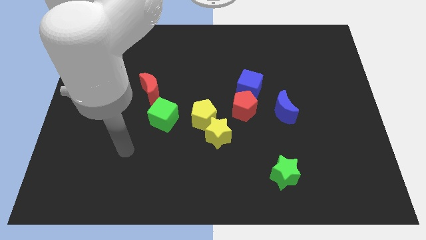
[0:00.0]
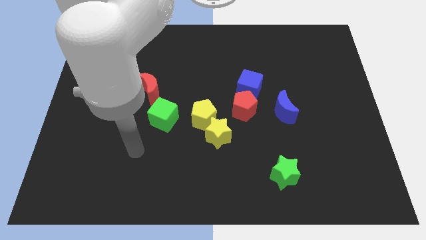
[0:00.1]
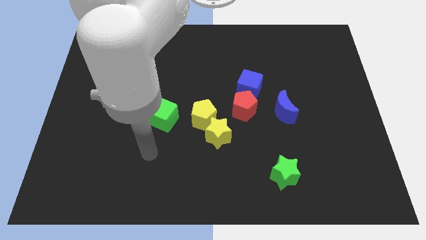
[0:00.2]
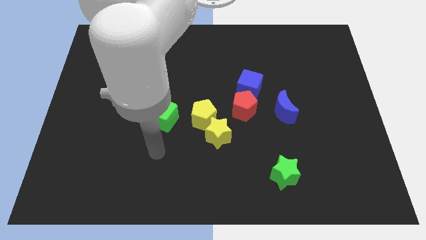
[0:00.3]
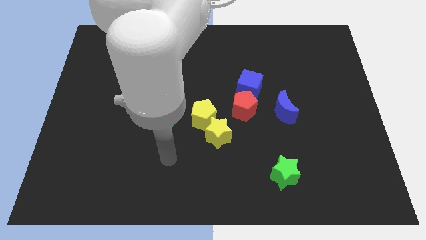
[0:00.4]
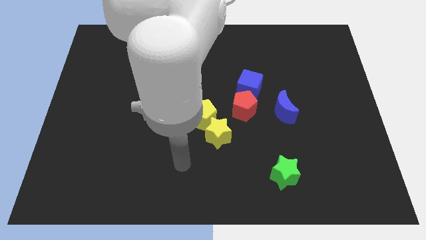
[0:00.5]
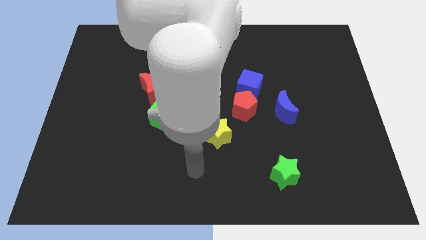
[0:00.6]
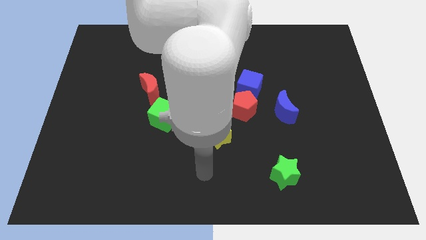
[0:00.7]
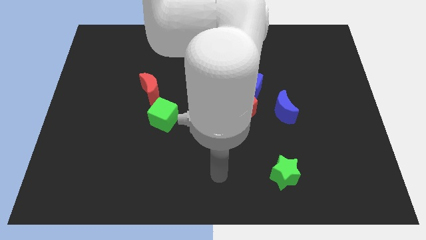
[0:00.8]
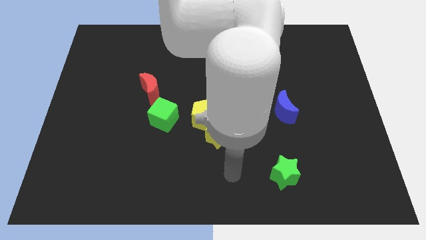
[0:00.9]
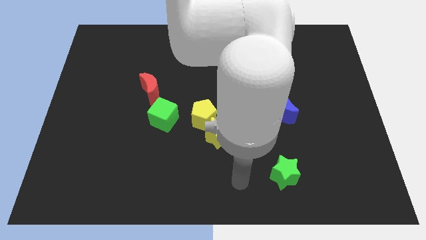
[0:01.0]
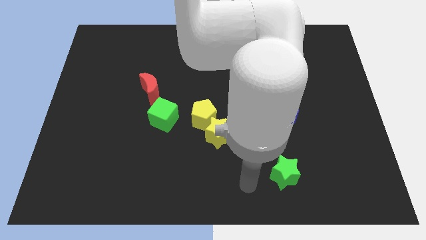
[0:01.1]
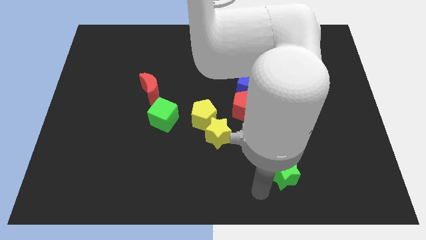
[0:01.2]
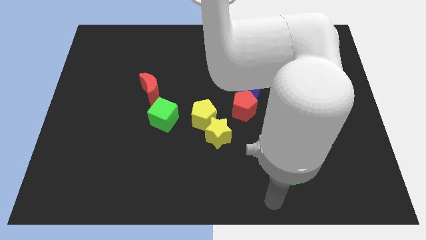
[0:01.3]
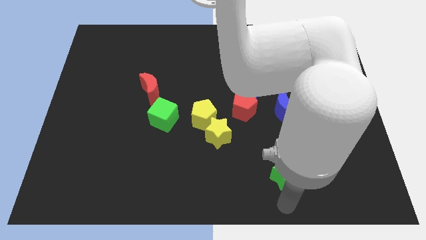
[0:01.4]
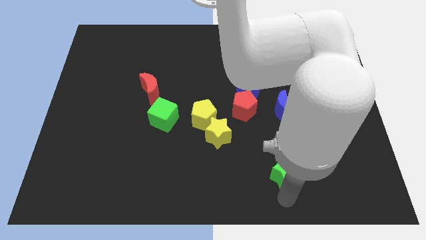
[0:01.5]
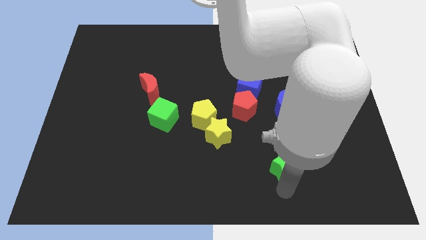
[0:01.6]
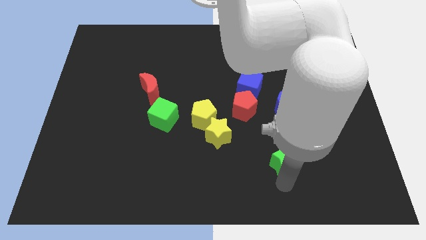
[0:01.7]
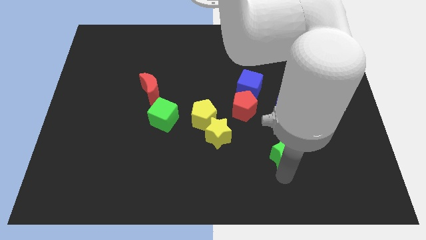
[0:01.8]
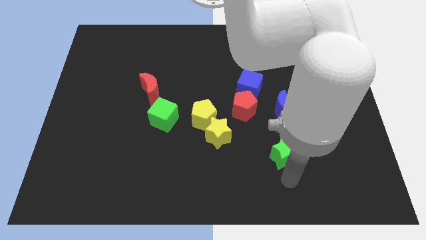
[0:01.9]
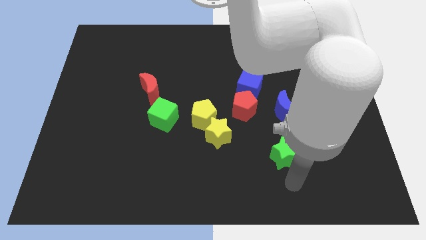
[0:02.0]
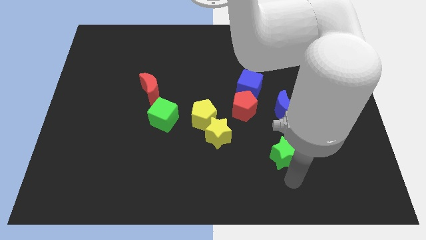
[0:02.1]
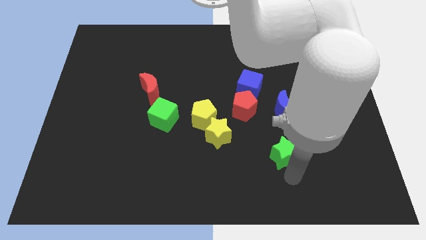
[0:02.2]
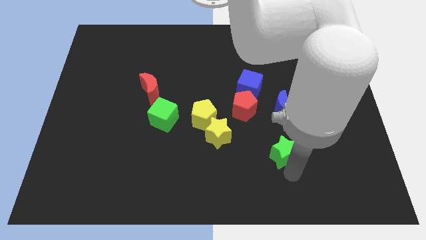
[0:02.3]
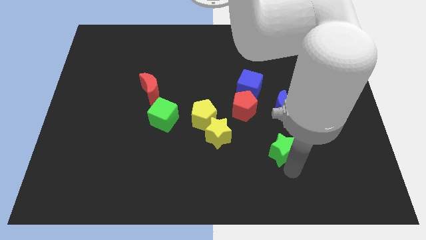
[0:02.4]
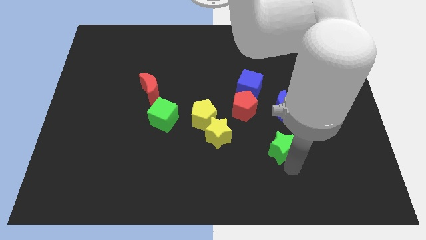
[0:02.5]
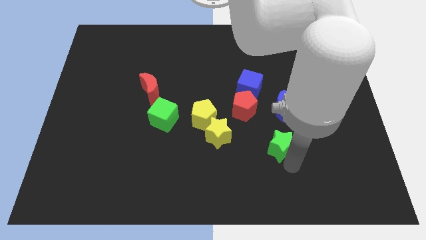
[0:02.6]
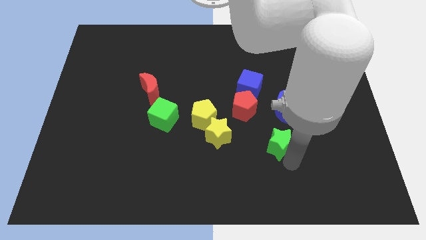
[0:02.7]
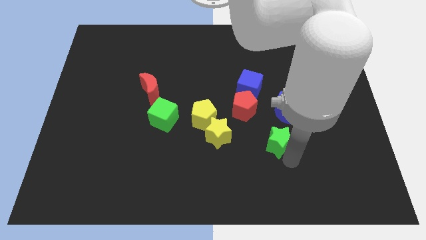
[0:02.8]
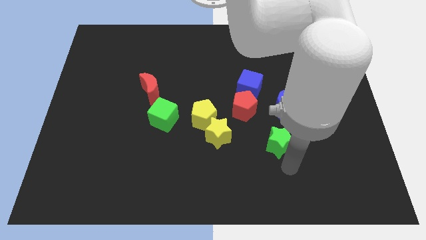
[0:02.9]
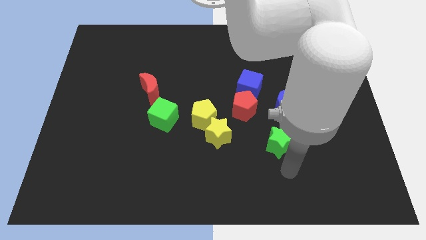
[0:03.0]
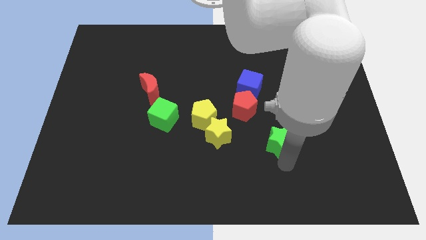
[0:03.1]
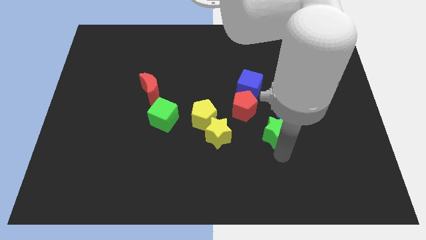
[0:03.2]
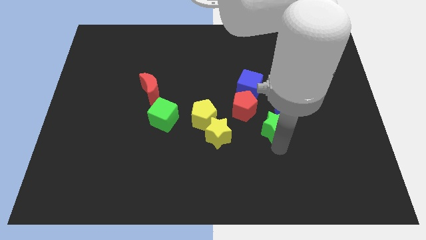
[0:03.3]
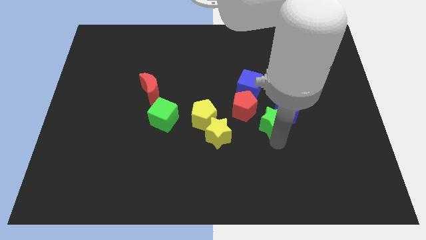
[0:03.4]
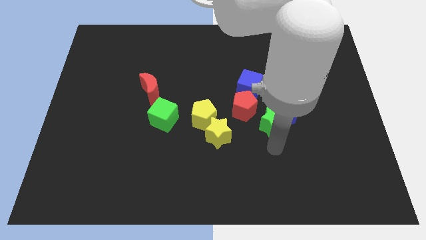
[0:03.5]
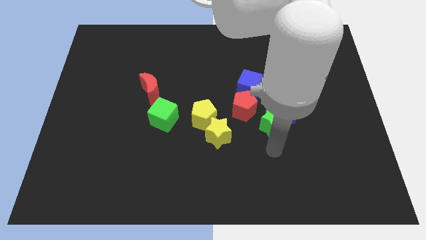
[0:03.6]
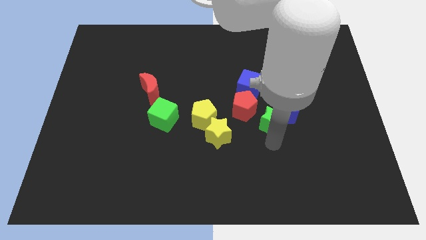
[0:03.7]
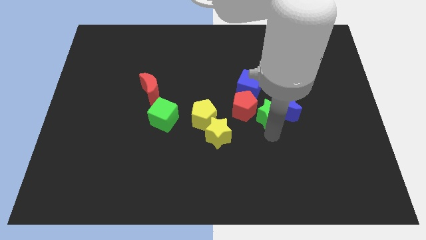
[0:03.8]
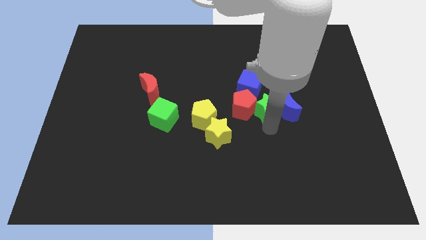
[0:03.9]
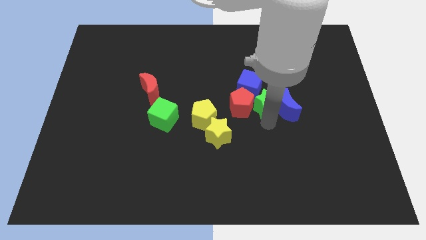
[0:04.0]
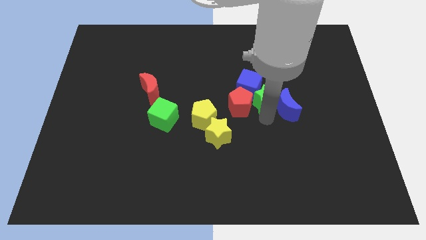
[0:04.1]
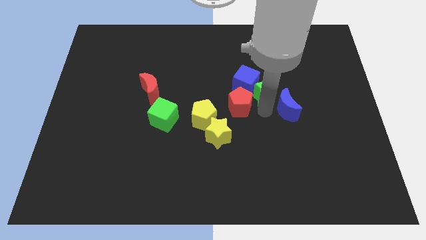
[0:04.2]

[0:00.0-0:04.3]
move the green star up

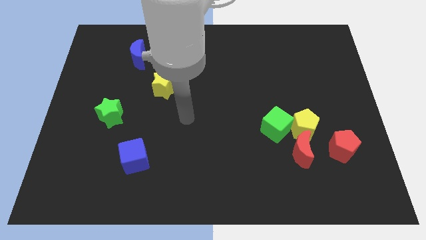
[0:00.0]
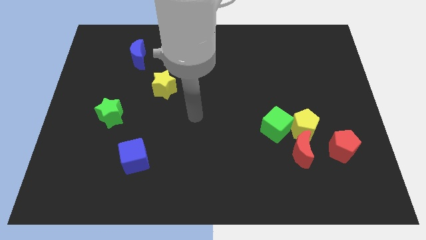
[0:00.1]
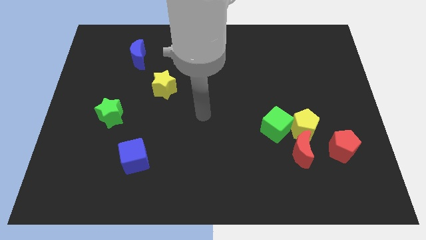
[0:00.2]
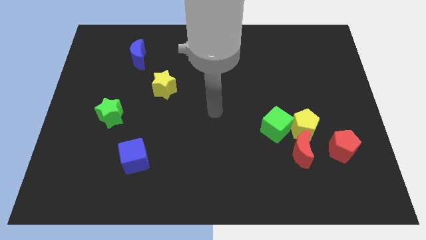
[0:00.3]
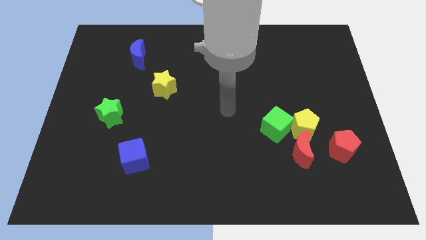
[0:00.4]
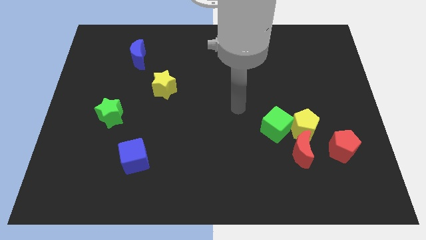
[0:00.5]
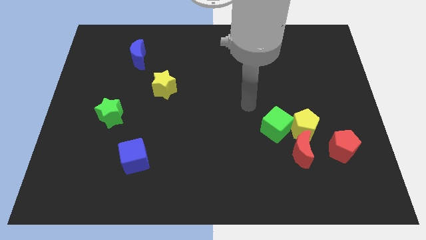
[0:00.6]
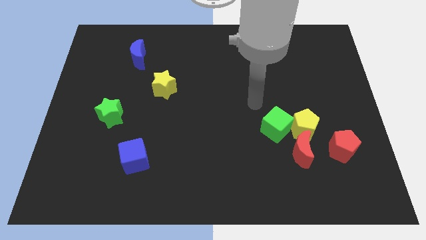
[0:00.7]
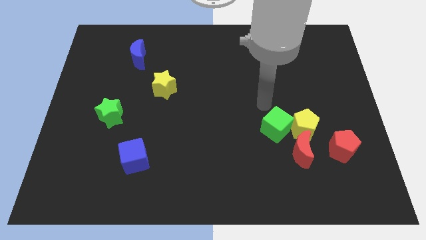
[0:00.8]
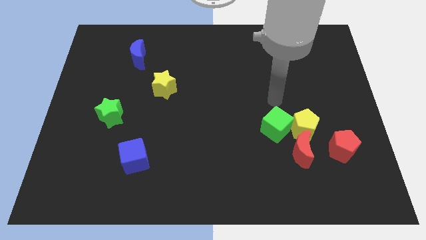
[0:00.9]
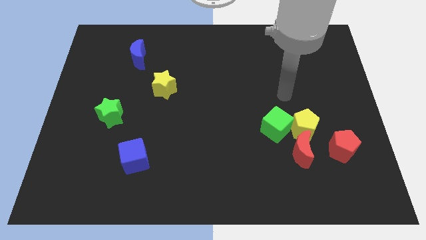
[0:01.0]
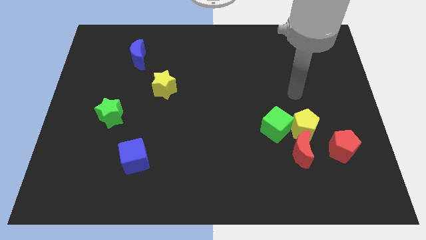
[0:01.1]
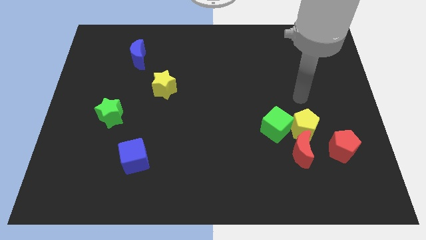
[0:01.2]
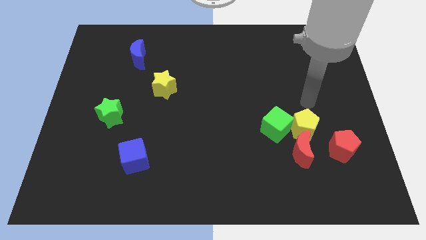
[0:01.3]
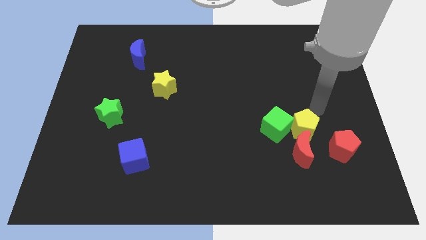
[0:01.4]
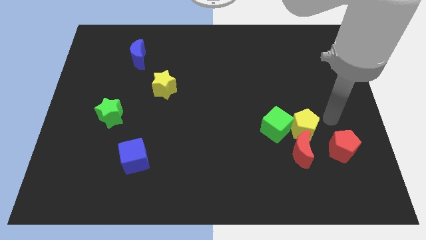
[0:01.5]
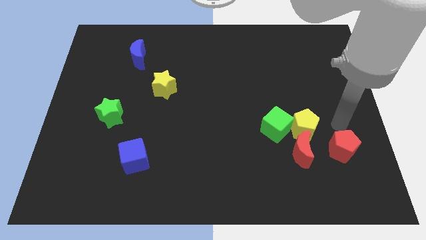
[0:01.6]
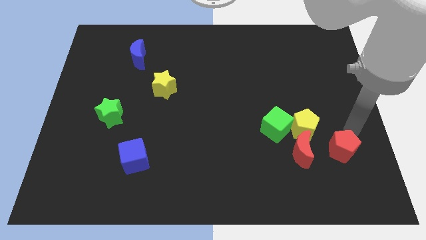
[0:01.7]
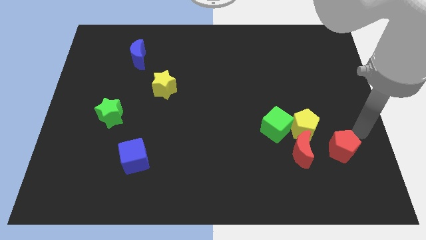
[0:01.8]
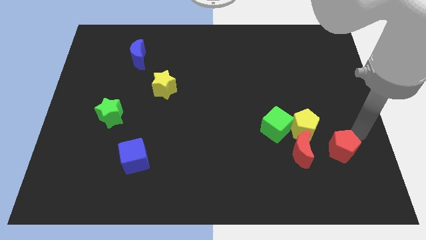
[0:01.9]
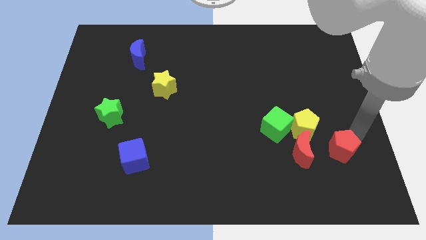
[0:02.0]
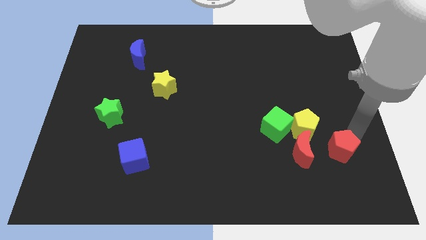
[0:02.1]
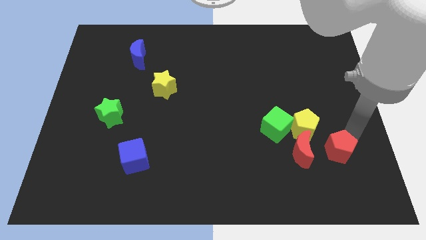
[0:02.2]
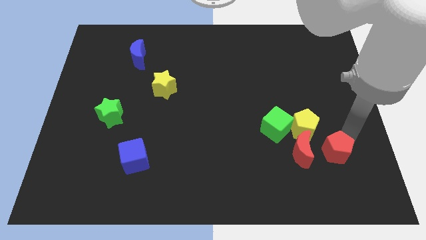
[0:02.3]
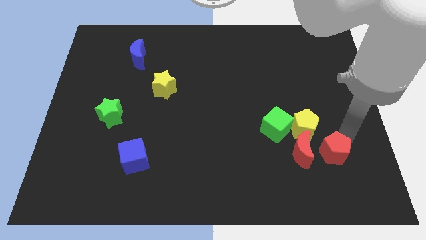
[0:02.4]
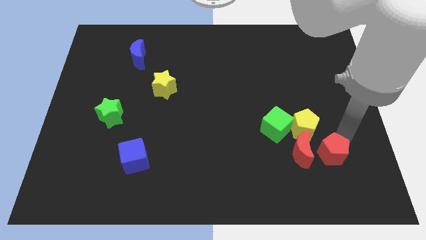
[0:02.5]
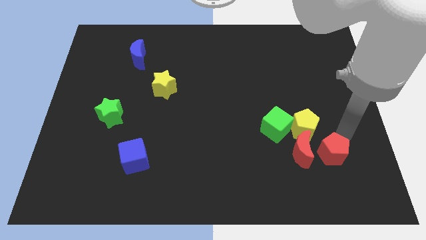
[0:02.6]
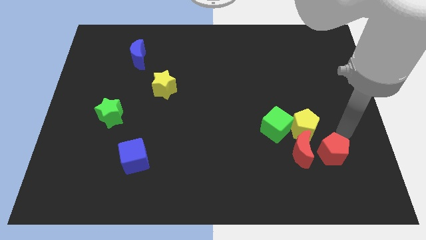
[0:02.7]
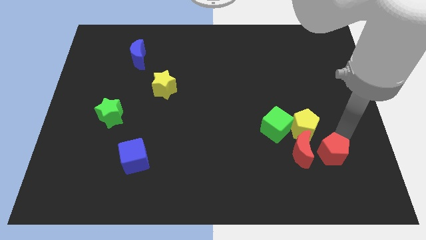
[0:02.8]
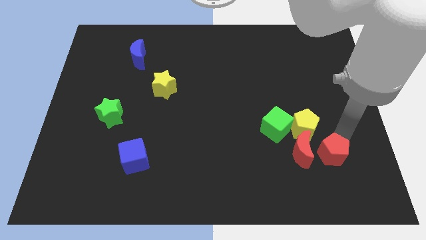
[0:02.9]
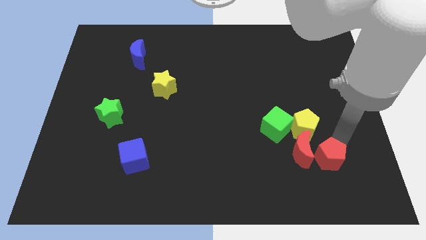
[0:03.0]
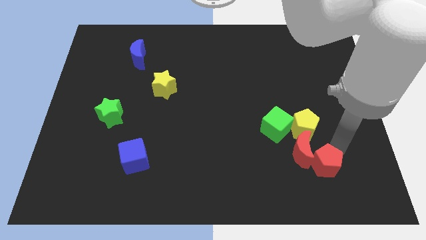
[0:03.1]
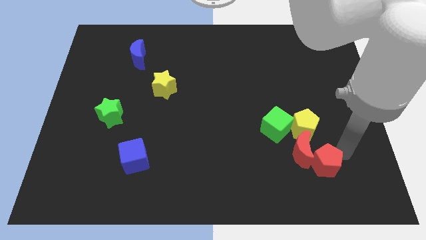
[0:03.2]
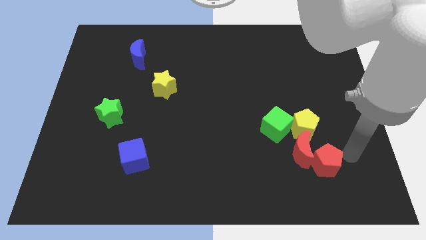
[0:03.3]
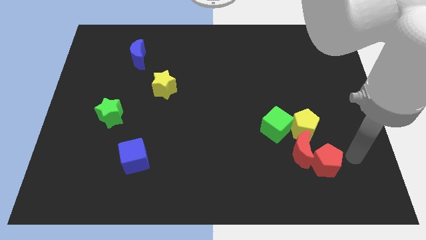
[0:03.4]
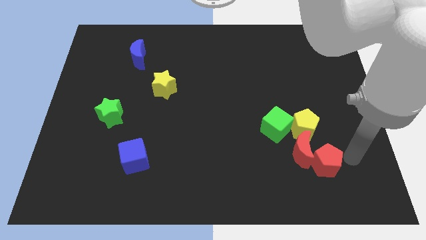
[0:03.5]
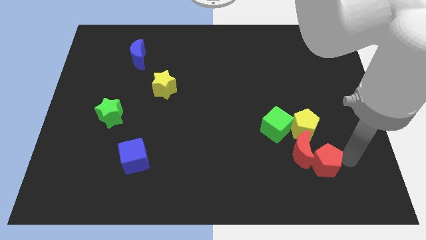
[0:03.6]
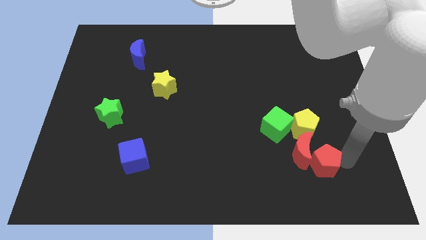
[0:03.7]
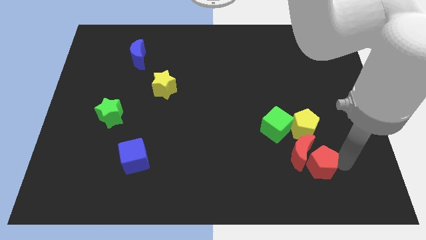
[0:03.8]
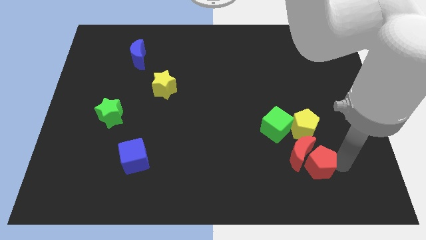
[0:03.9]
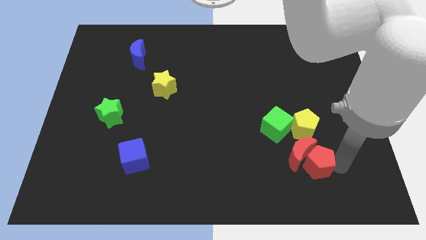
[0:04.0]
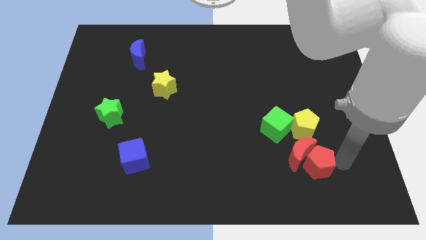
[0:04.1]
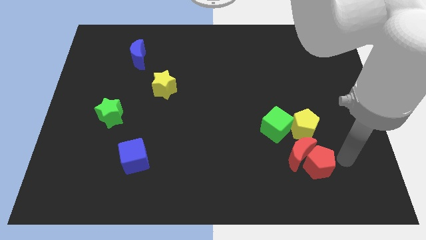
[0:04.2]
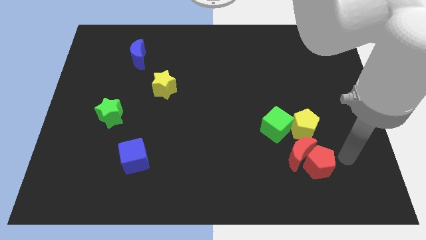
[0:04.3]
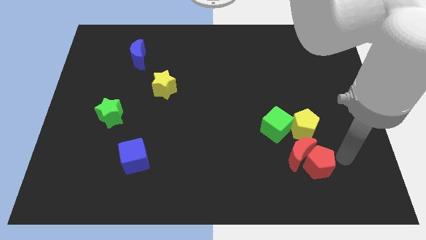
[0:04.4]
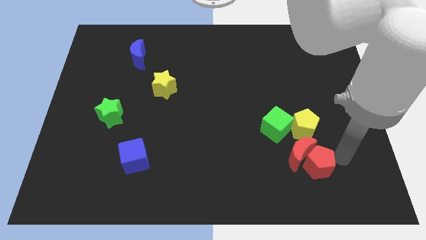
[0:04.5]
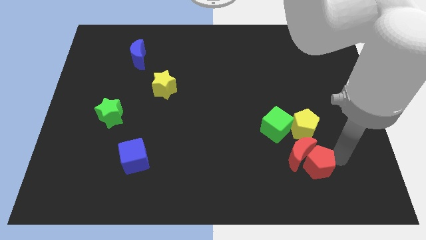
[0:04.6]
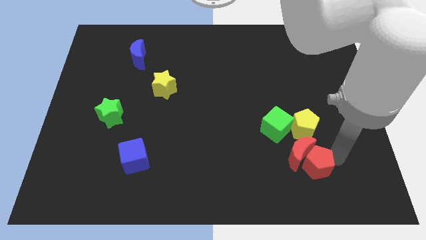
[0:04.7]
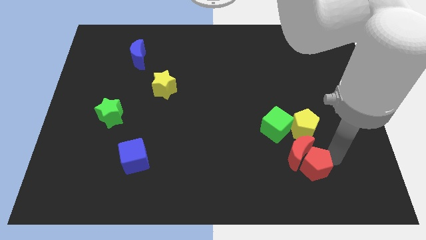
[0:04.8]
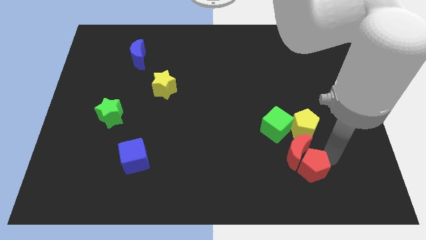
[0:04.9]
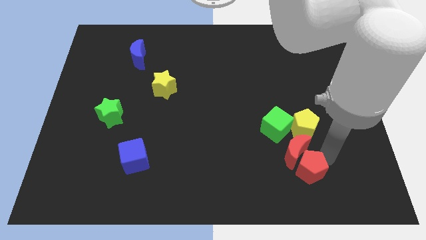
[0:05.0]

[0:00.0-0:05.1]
push the red pentagon somewhat to the left
